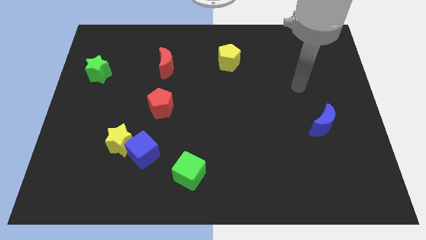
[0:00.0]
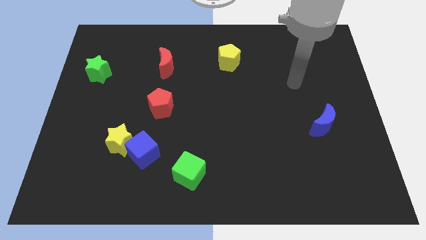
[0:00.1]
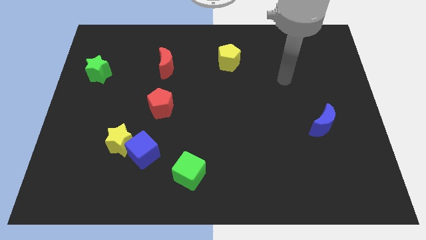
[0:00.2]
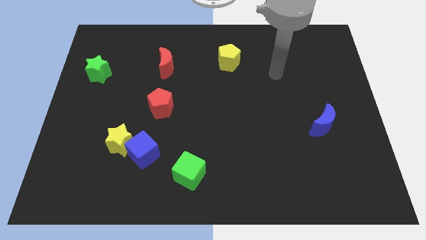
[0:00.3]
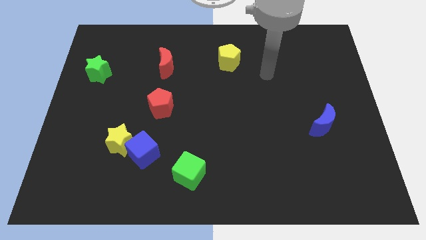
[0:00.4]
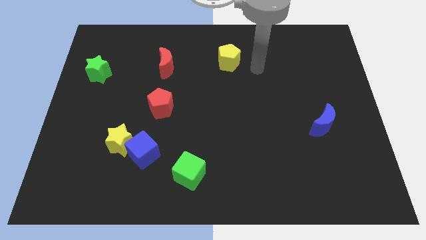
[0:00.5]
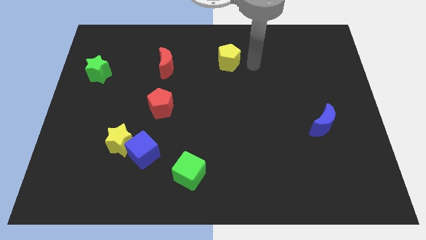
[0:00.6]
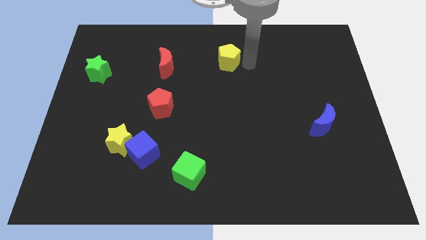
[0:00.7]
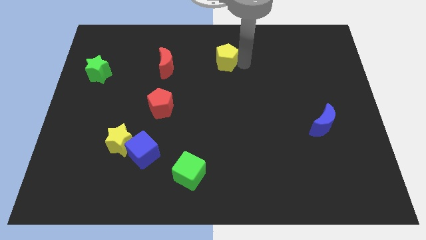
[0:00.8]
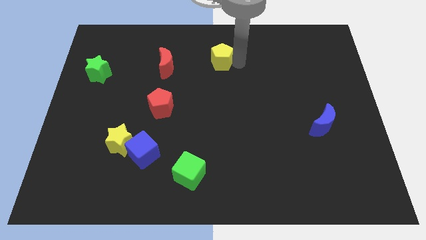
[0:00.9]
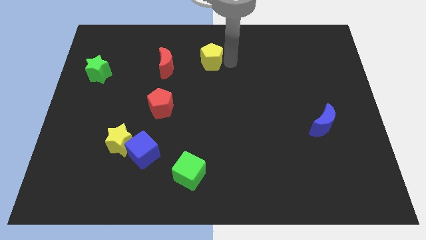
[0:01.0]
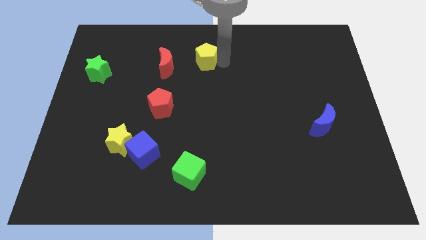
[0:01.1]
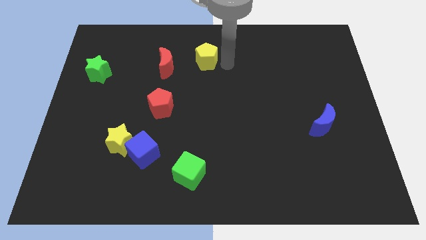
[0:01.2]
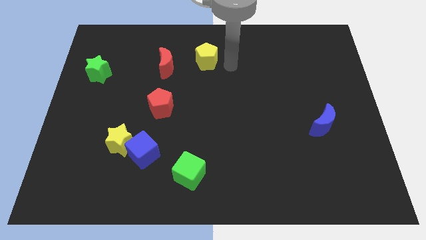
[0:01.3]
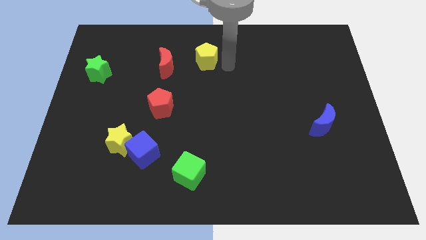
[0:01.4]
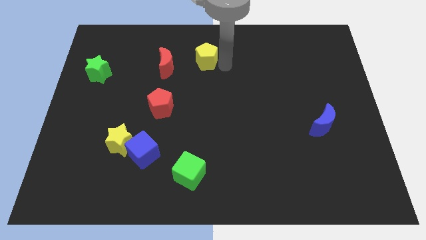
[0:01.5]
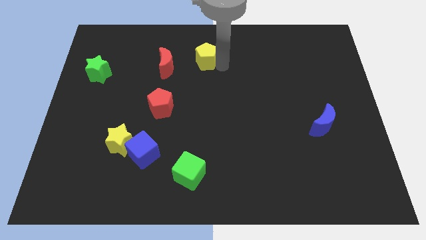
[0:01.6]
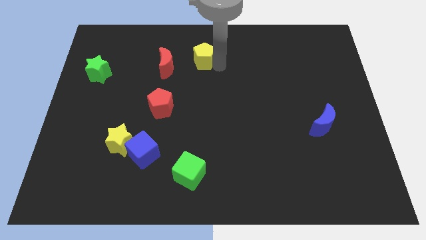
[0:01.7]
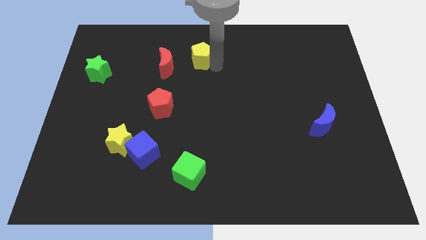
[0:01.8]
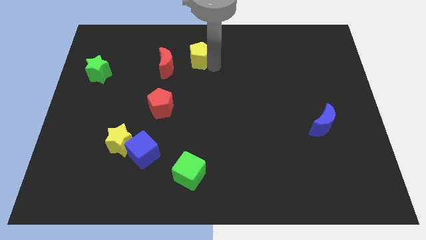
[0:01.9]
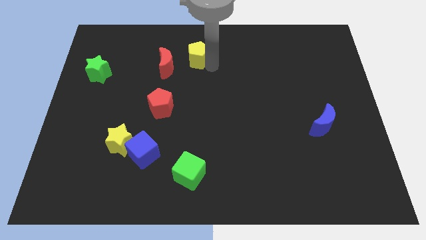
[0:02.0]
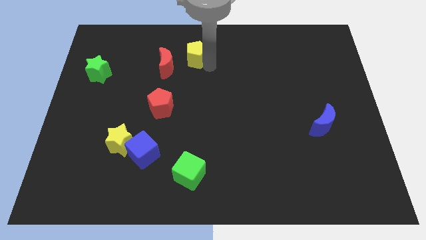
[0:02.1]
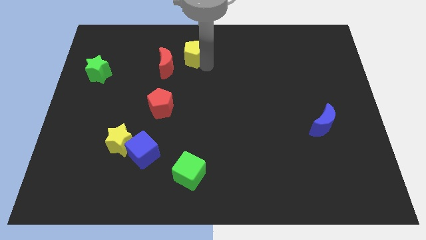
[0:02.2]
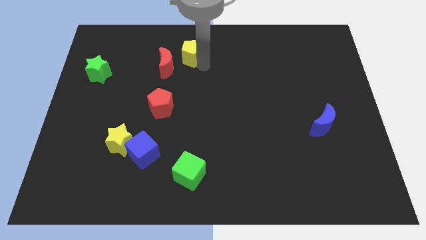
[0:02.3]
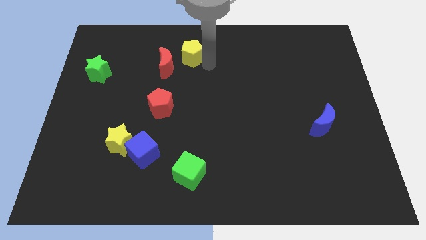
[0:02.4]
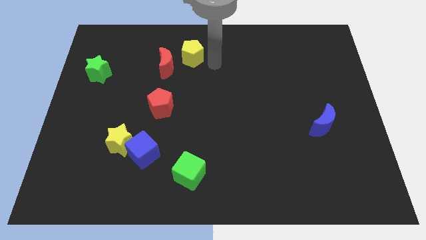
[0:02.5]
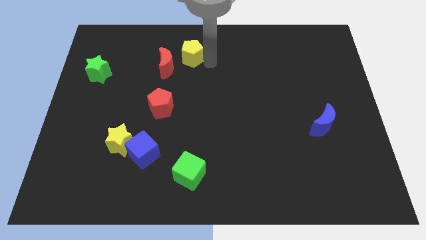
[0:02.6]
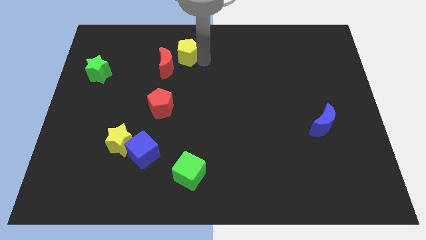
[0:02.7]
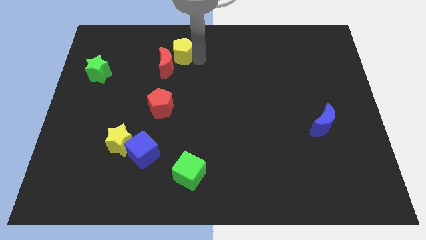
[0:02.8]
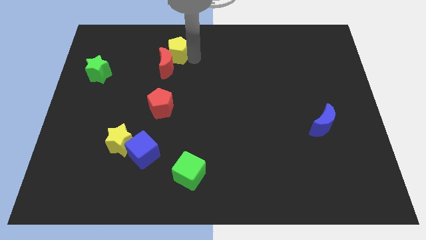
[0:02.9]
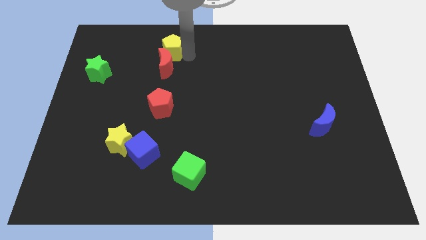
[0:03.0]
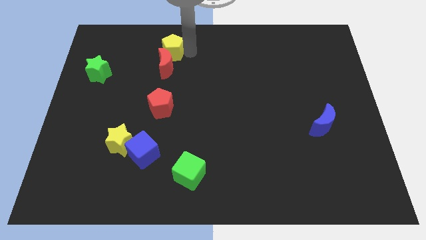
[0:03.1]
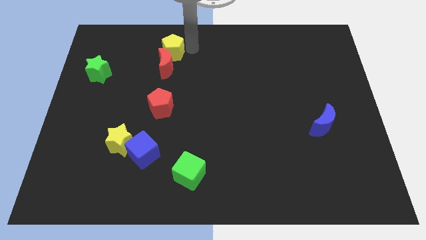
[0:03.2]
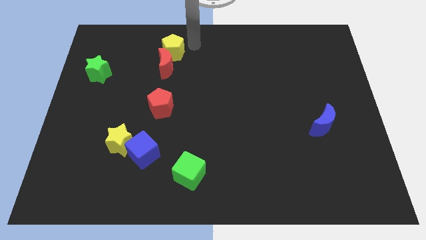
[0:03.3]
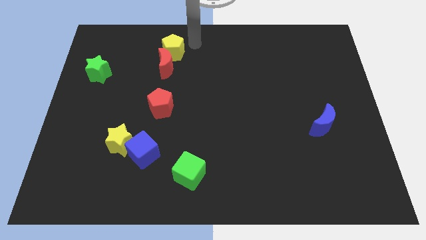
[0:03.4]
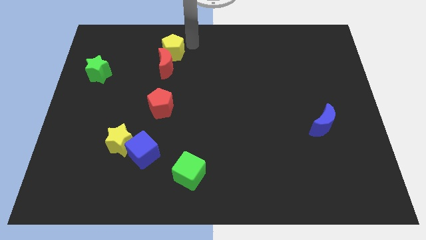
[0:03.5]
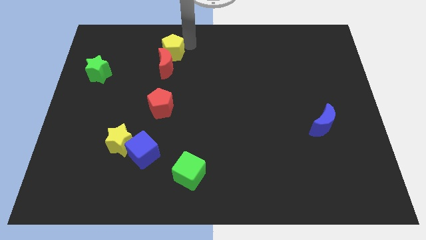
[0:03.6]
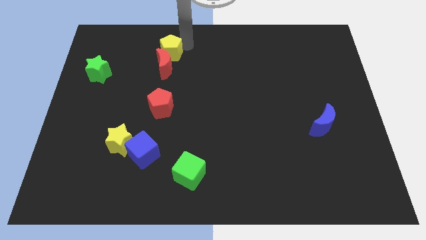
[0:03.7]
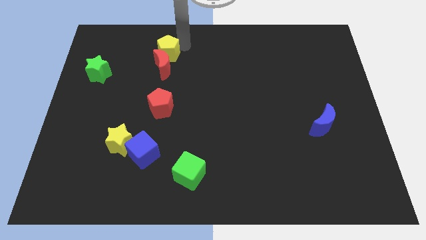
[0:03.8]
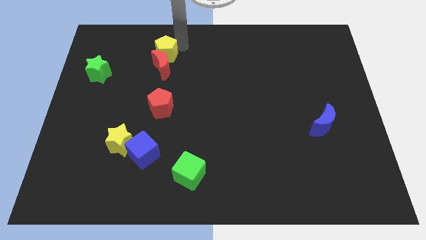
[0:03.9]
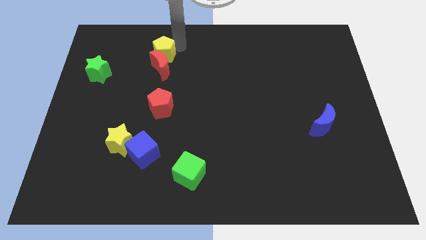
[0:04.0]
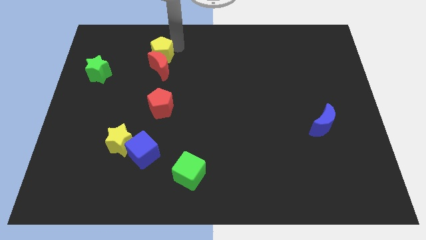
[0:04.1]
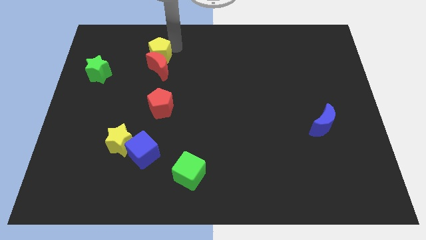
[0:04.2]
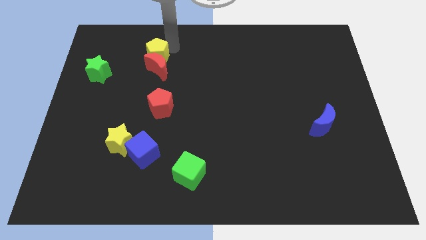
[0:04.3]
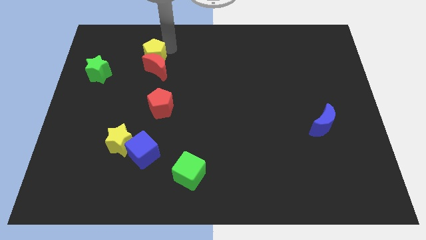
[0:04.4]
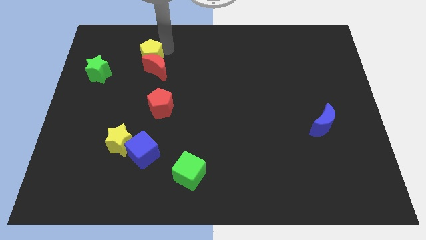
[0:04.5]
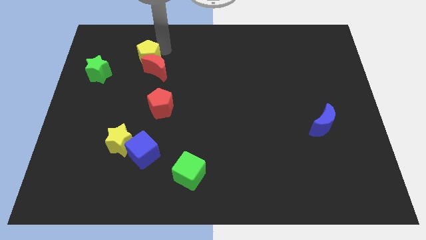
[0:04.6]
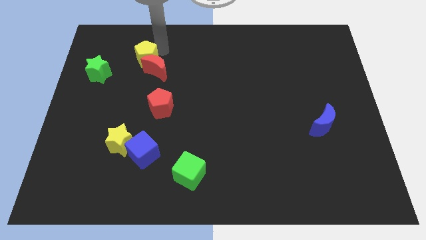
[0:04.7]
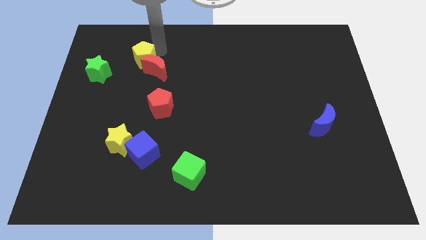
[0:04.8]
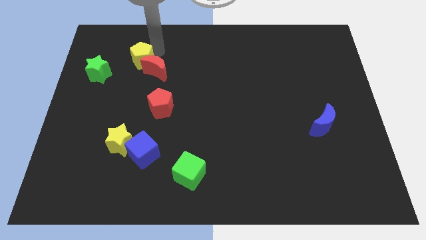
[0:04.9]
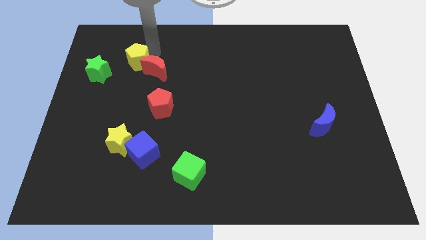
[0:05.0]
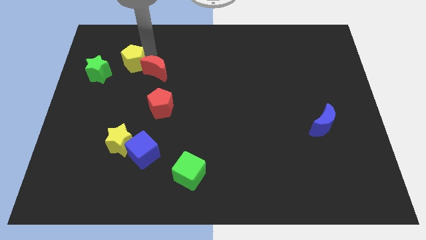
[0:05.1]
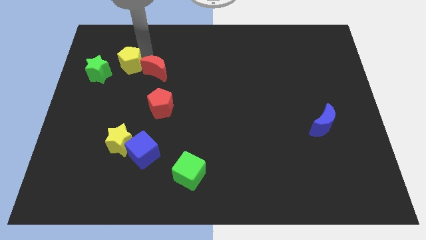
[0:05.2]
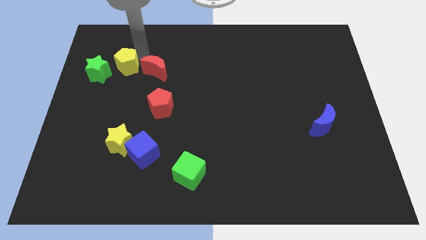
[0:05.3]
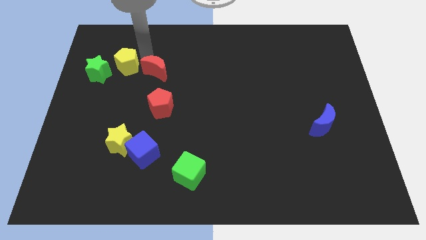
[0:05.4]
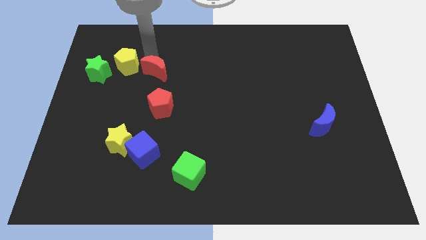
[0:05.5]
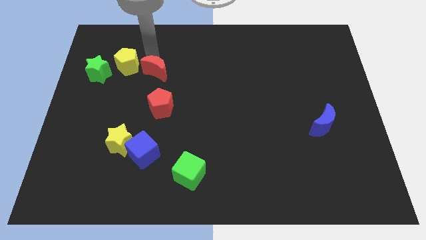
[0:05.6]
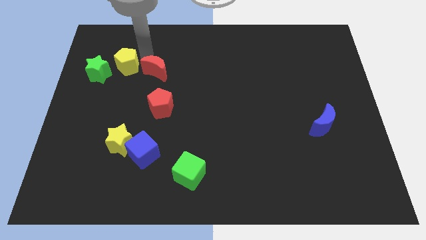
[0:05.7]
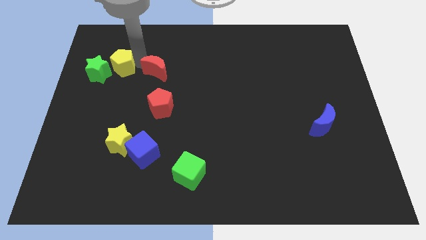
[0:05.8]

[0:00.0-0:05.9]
push the yellow pentagon towards the green star

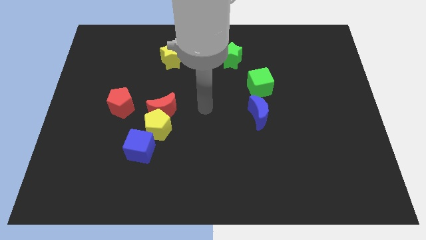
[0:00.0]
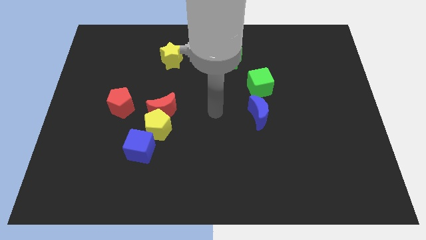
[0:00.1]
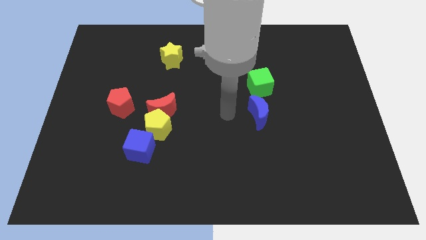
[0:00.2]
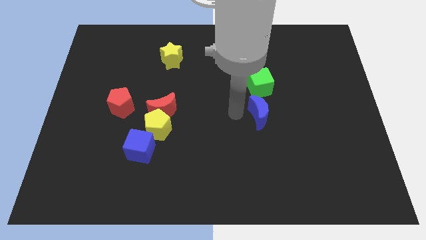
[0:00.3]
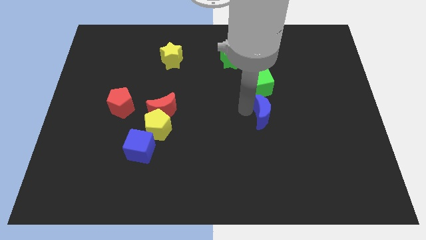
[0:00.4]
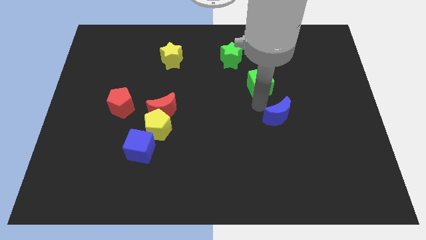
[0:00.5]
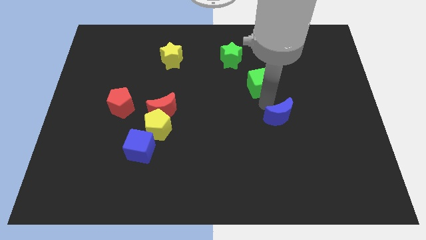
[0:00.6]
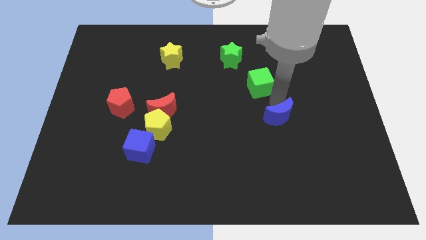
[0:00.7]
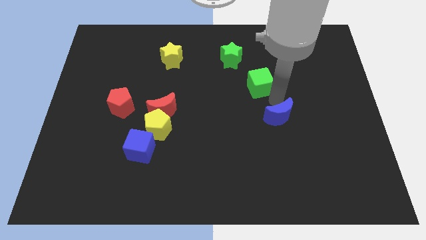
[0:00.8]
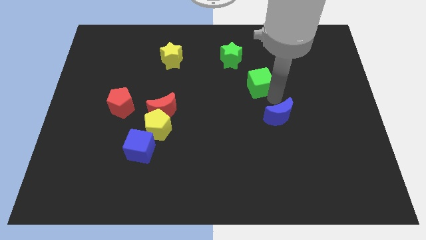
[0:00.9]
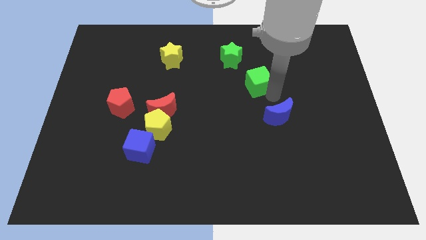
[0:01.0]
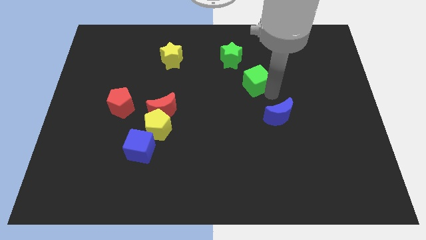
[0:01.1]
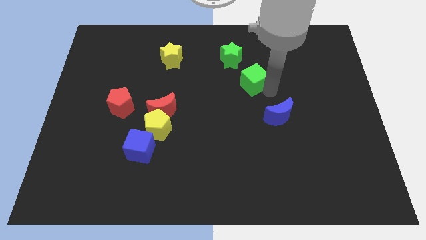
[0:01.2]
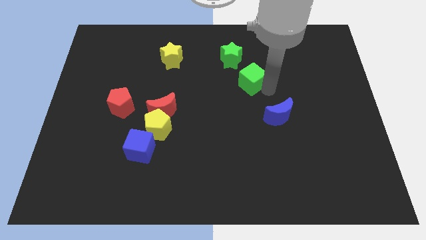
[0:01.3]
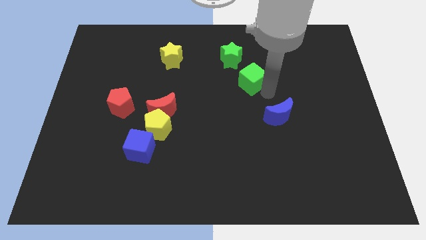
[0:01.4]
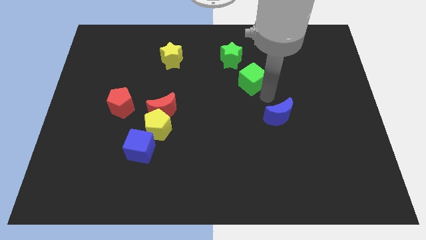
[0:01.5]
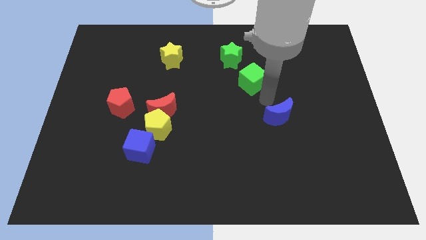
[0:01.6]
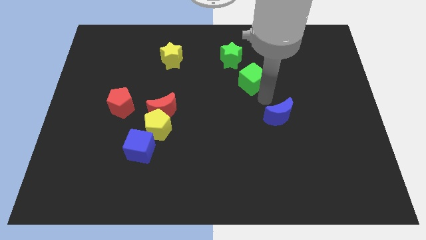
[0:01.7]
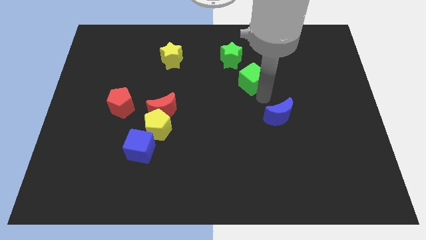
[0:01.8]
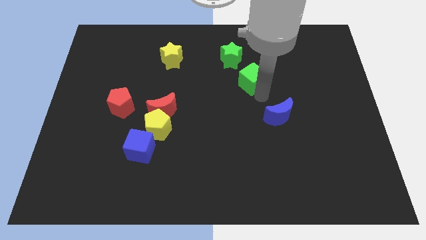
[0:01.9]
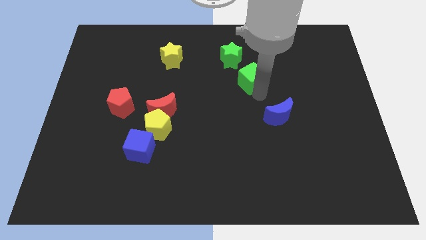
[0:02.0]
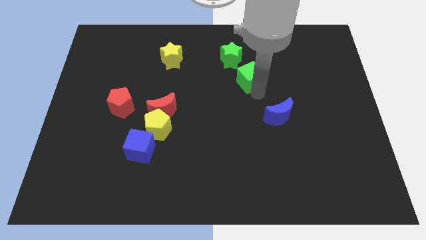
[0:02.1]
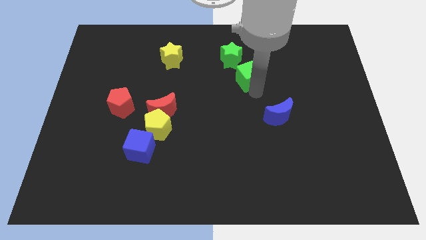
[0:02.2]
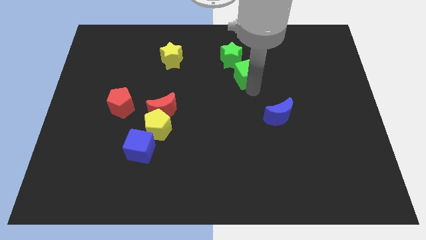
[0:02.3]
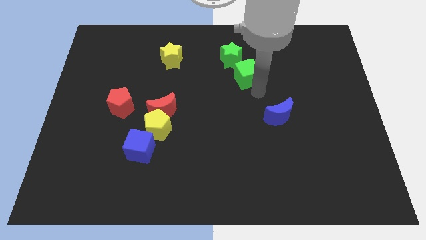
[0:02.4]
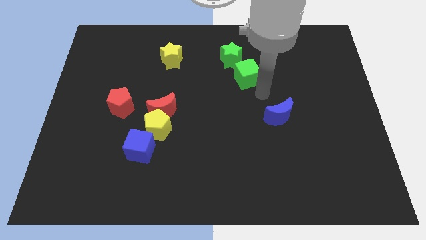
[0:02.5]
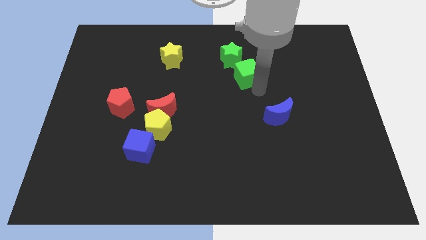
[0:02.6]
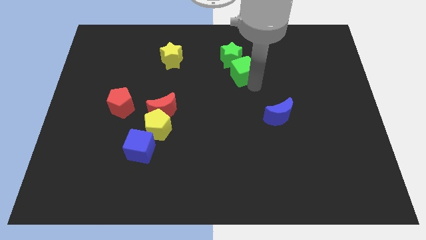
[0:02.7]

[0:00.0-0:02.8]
move the green cube close to the green star
